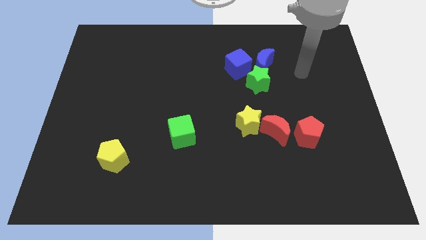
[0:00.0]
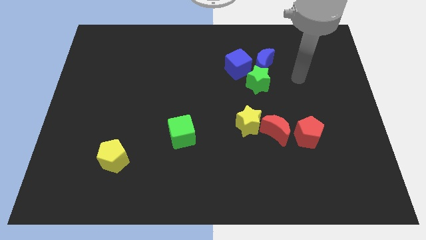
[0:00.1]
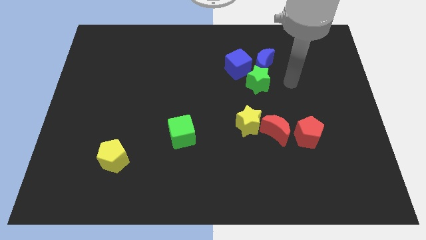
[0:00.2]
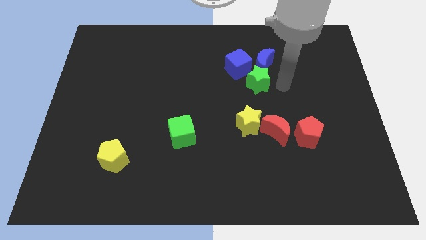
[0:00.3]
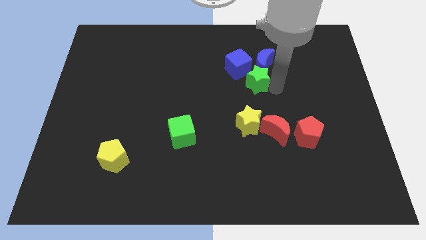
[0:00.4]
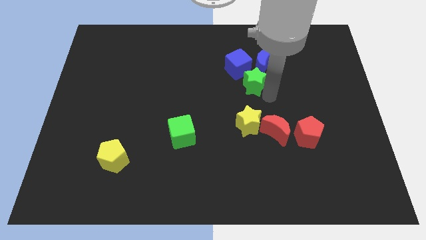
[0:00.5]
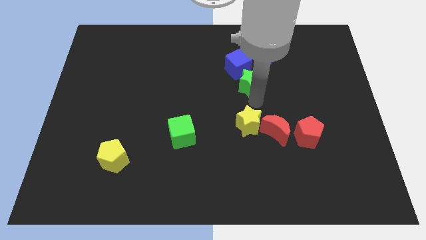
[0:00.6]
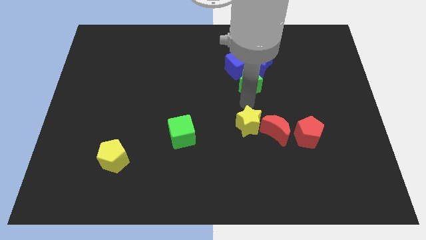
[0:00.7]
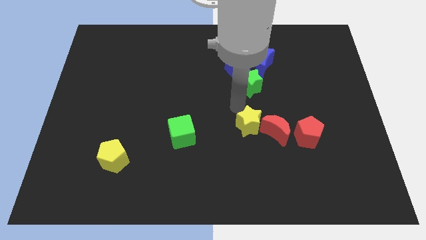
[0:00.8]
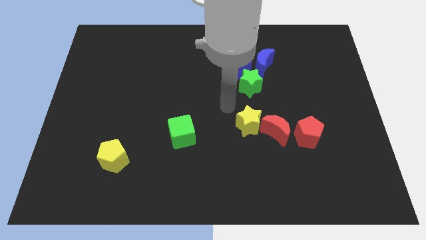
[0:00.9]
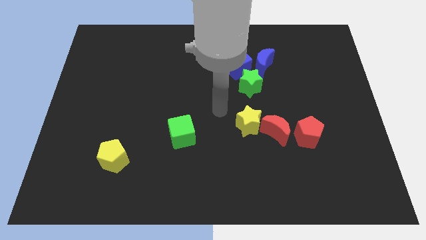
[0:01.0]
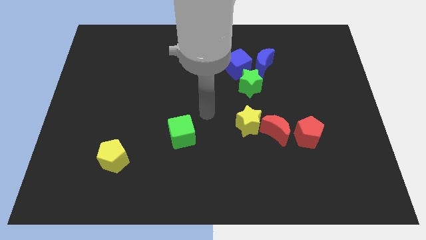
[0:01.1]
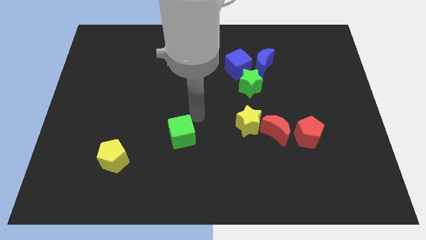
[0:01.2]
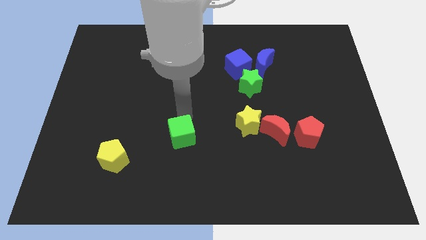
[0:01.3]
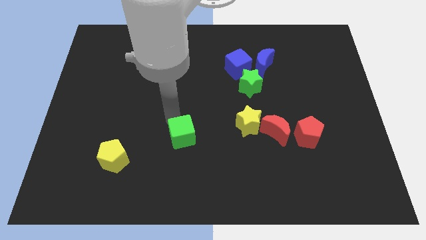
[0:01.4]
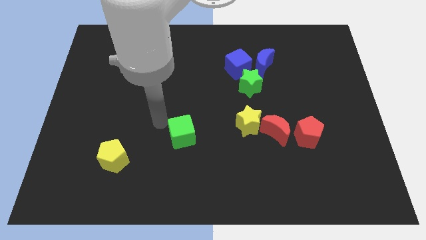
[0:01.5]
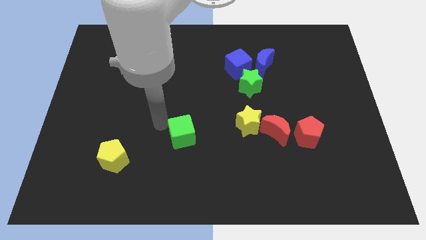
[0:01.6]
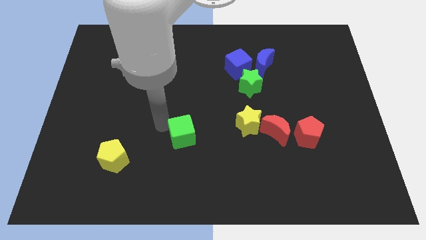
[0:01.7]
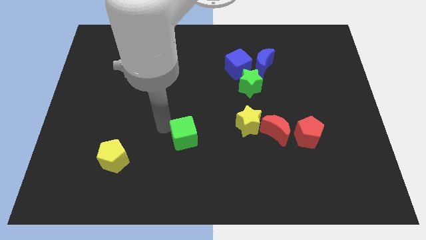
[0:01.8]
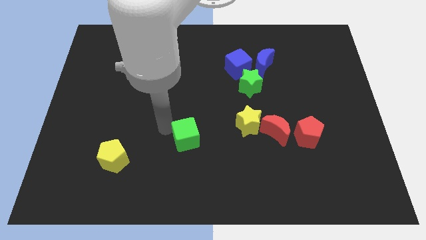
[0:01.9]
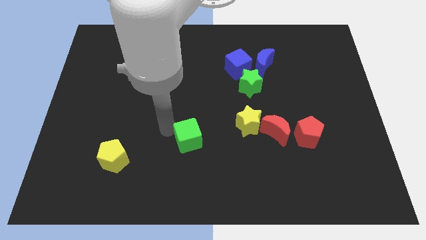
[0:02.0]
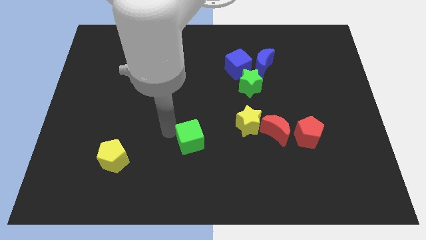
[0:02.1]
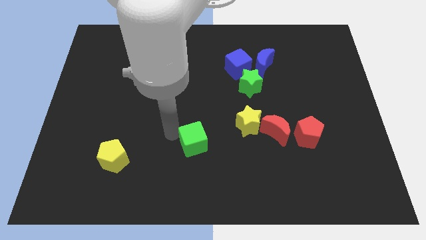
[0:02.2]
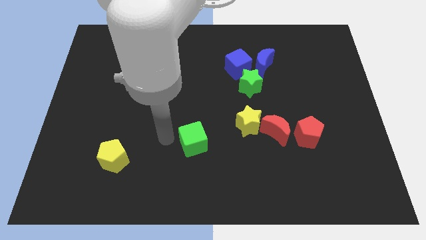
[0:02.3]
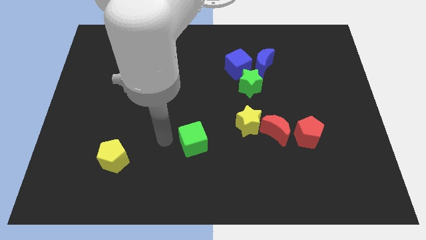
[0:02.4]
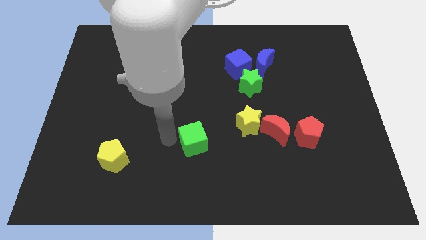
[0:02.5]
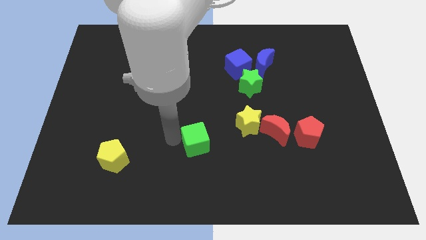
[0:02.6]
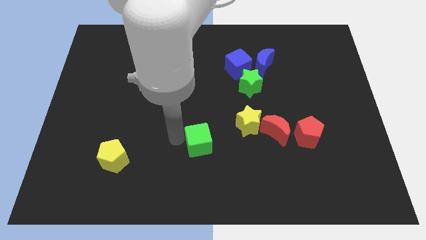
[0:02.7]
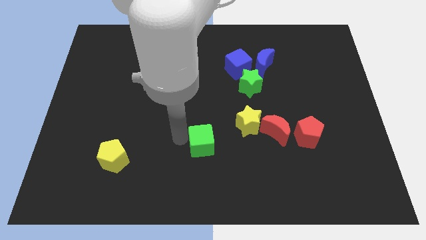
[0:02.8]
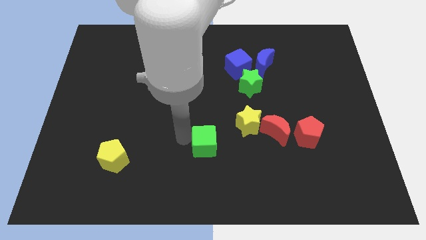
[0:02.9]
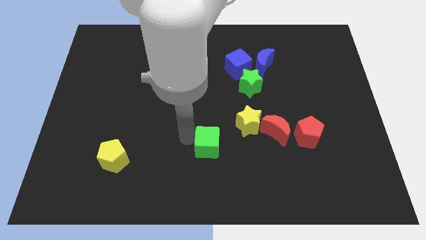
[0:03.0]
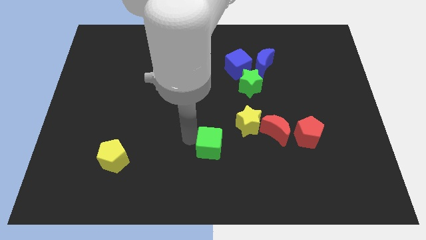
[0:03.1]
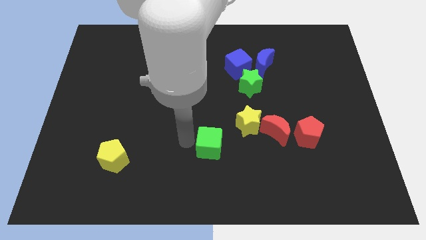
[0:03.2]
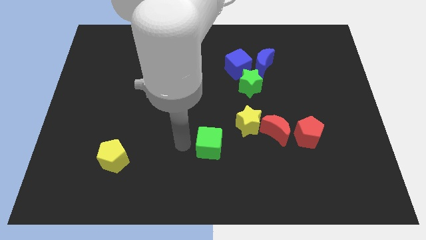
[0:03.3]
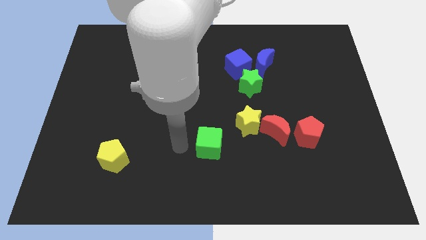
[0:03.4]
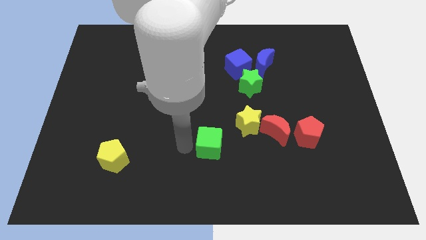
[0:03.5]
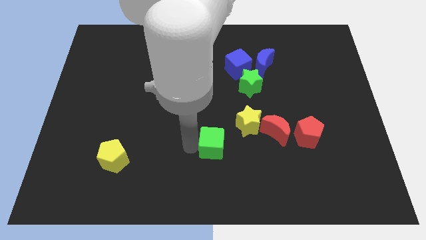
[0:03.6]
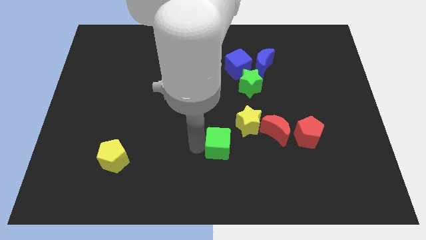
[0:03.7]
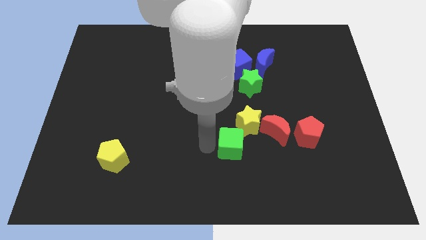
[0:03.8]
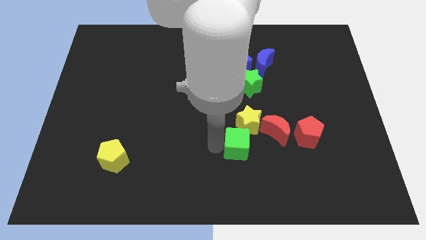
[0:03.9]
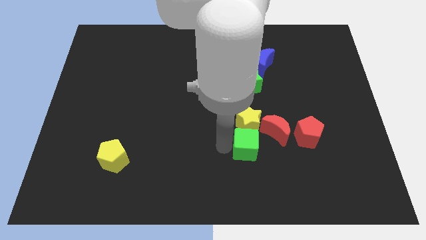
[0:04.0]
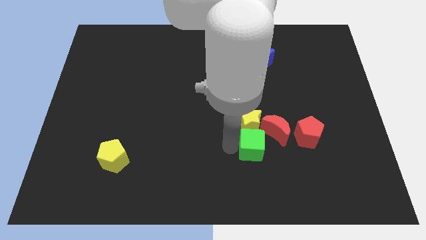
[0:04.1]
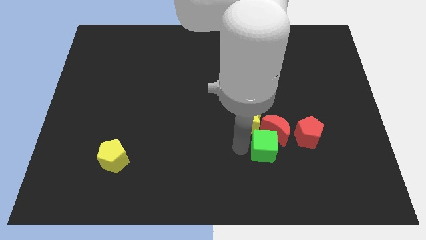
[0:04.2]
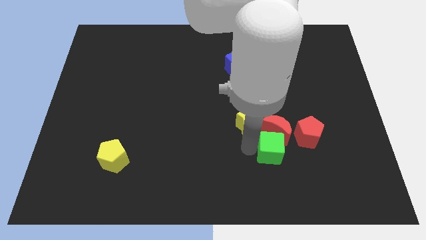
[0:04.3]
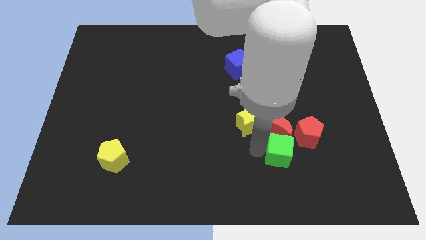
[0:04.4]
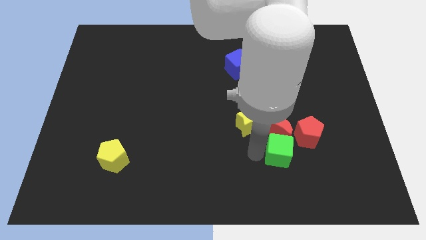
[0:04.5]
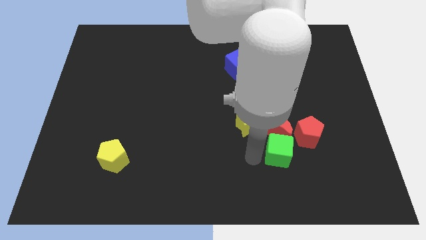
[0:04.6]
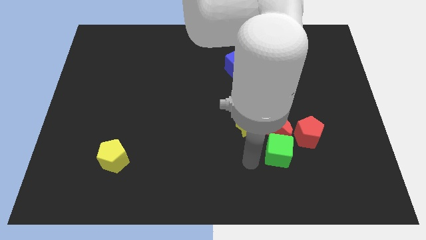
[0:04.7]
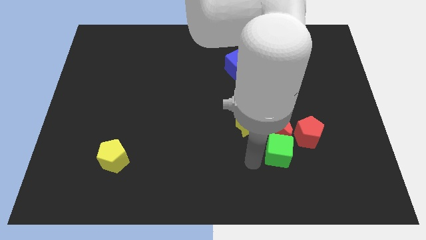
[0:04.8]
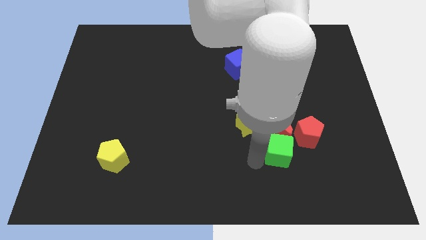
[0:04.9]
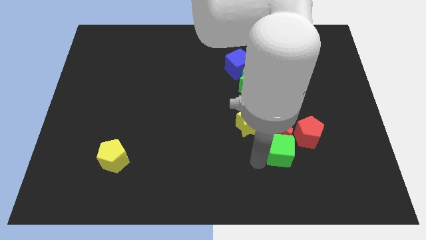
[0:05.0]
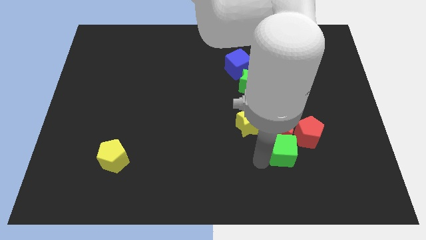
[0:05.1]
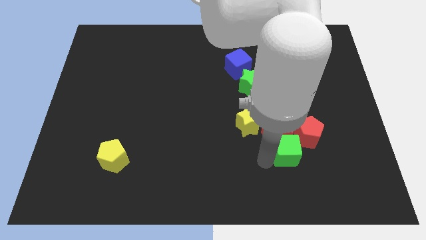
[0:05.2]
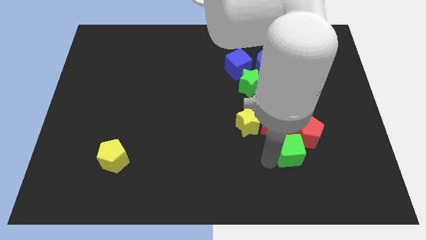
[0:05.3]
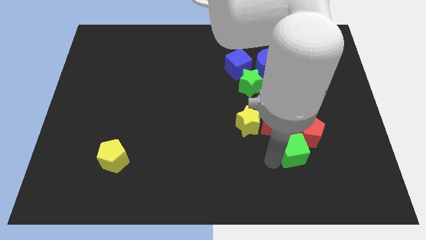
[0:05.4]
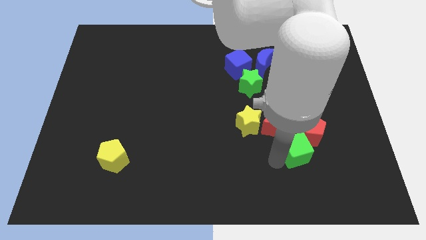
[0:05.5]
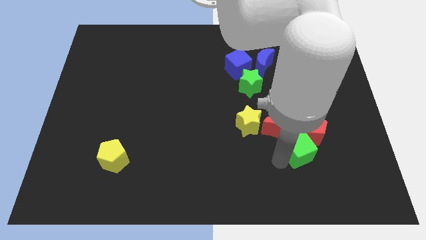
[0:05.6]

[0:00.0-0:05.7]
slide the green cube close to the red pentagon

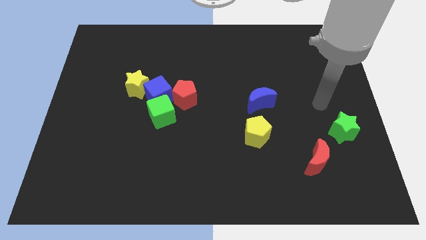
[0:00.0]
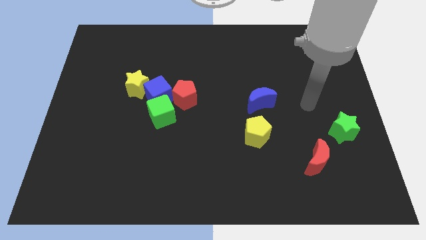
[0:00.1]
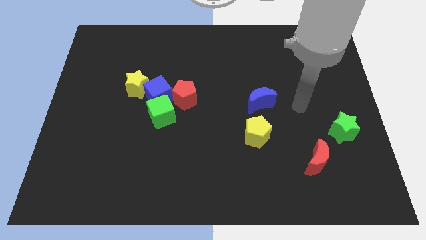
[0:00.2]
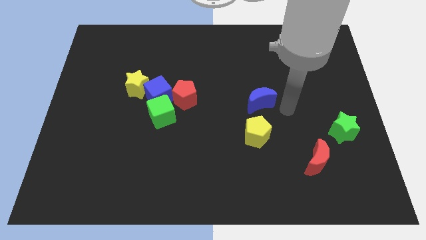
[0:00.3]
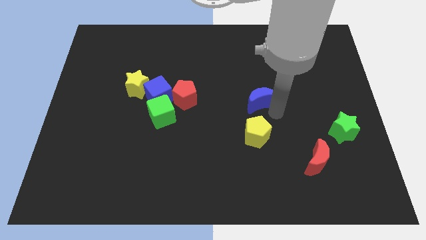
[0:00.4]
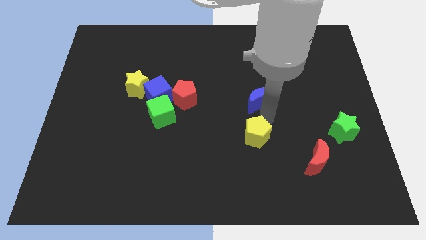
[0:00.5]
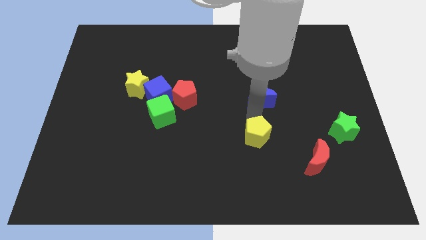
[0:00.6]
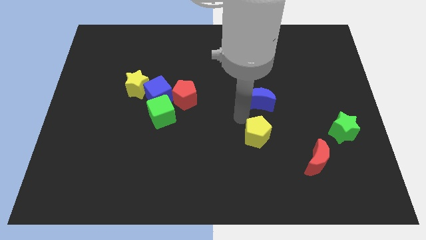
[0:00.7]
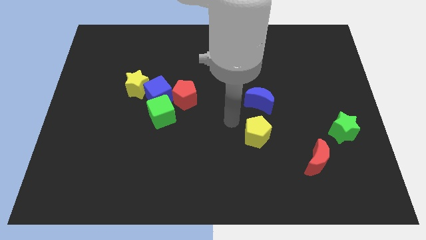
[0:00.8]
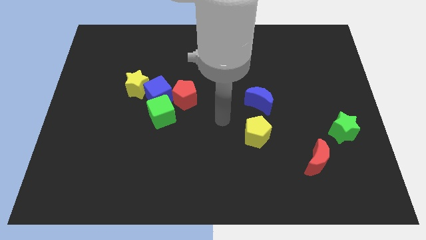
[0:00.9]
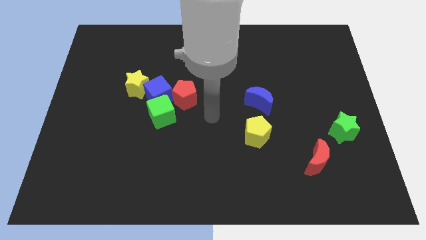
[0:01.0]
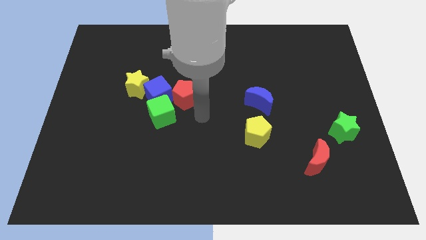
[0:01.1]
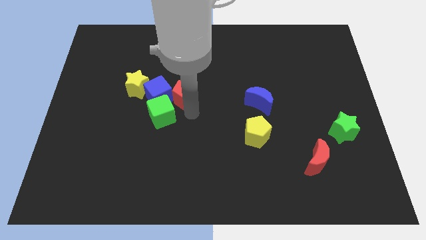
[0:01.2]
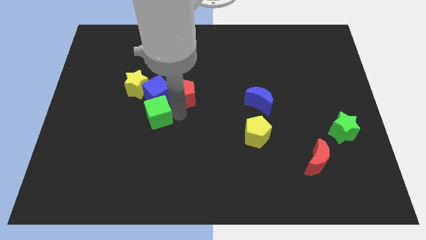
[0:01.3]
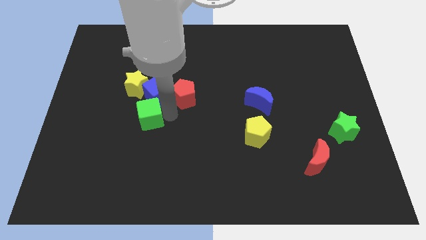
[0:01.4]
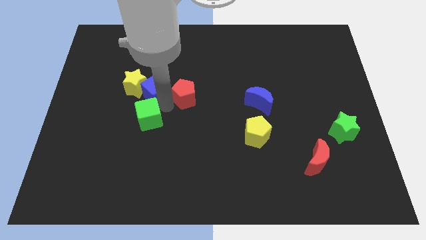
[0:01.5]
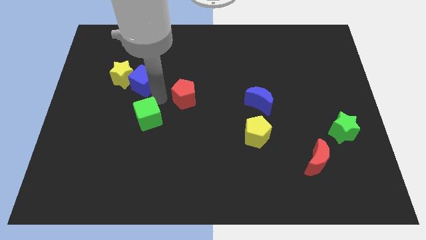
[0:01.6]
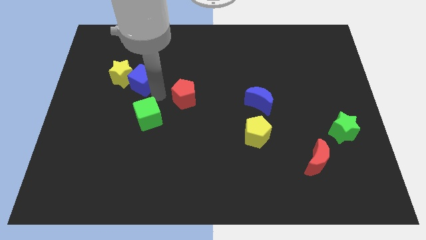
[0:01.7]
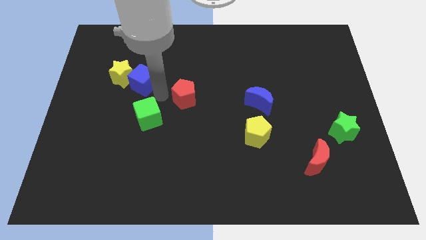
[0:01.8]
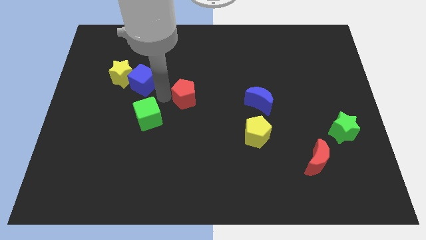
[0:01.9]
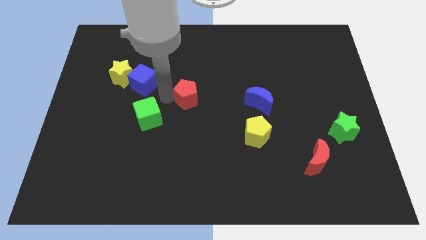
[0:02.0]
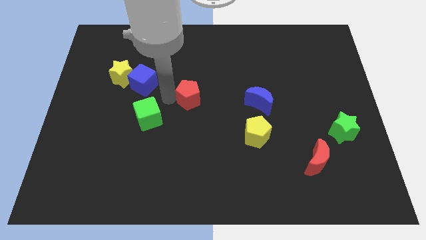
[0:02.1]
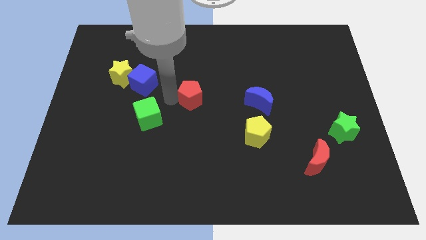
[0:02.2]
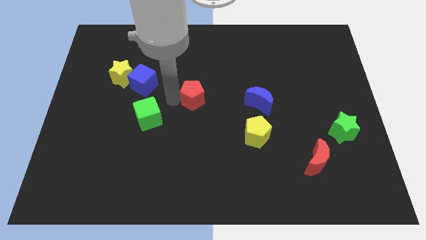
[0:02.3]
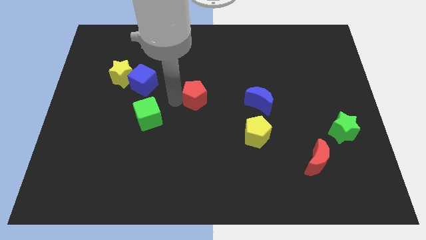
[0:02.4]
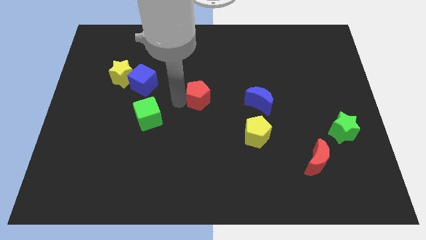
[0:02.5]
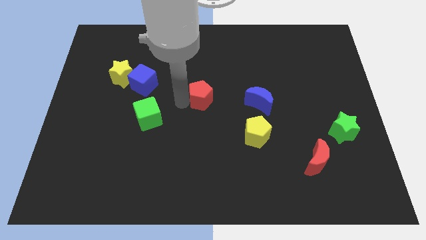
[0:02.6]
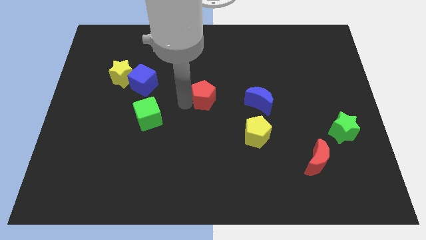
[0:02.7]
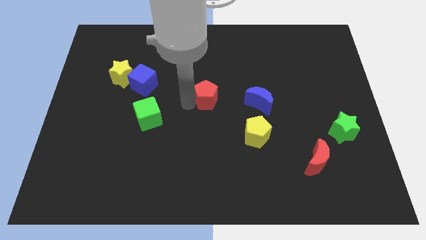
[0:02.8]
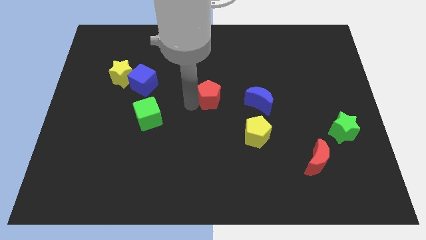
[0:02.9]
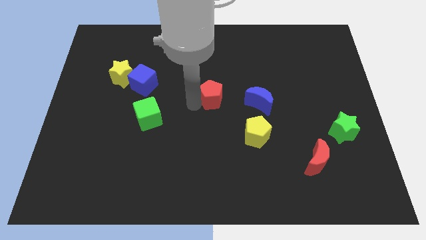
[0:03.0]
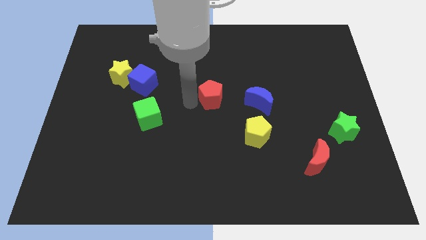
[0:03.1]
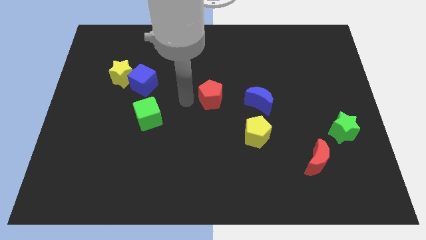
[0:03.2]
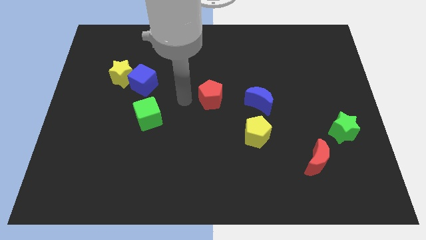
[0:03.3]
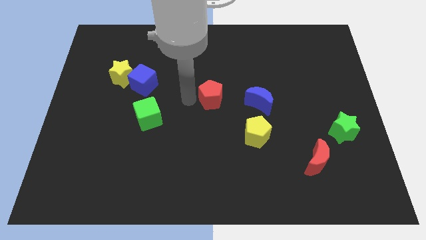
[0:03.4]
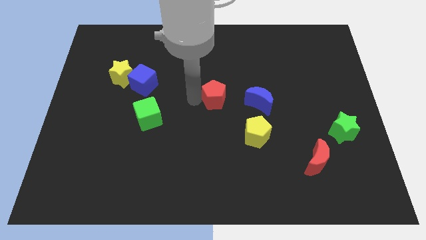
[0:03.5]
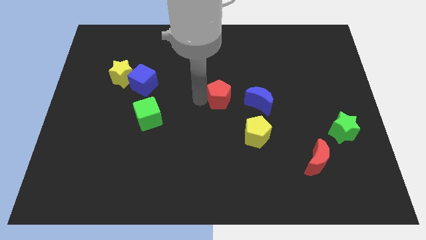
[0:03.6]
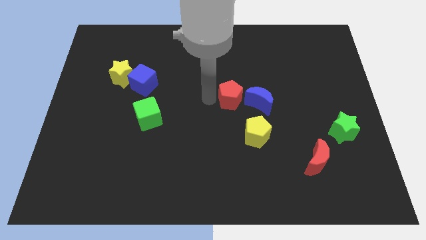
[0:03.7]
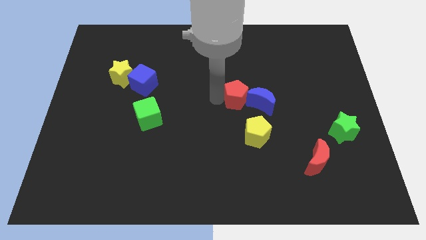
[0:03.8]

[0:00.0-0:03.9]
push the red pentagon towards the blue moon
